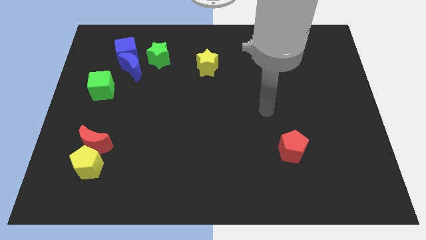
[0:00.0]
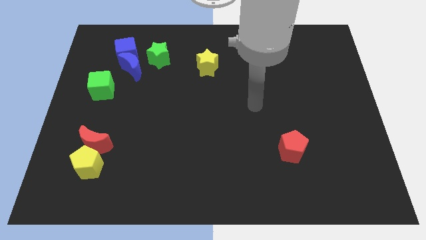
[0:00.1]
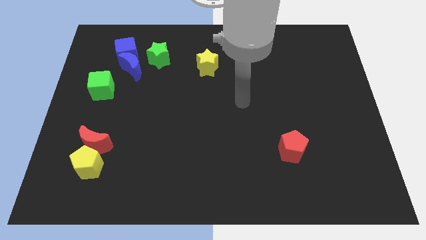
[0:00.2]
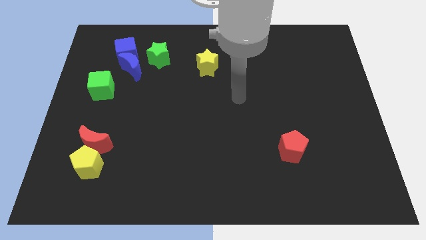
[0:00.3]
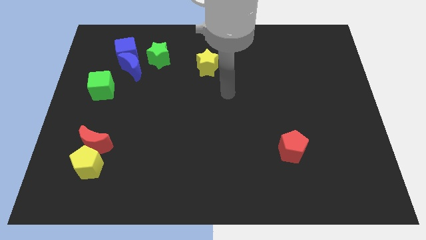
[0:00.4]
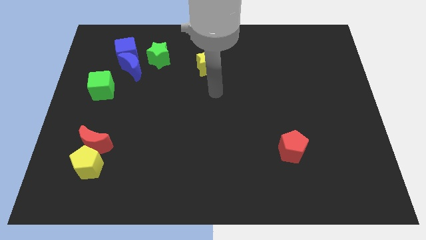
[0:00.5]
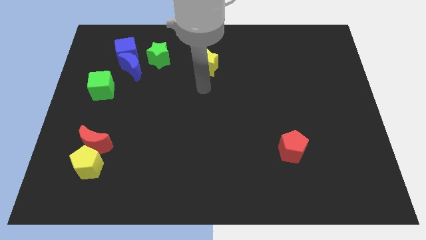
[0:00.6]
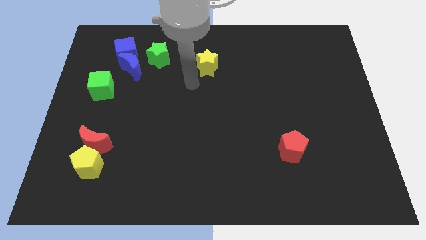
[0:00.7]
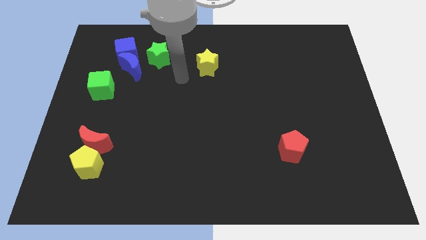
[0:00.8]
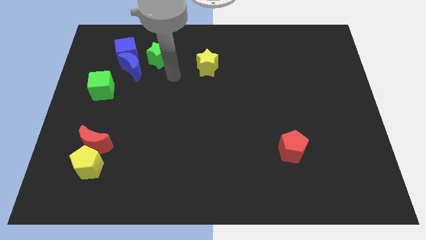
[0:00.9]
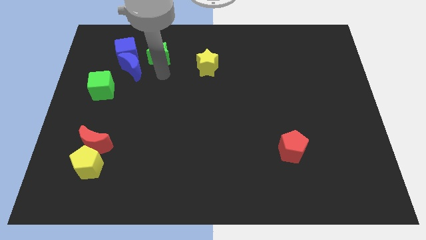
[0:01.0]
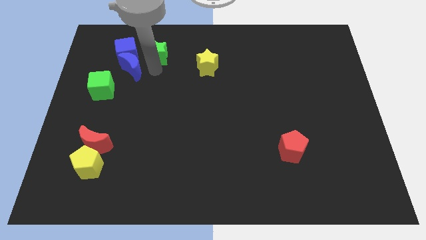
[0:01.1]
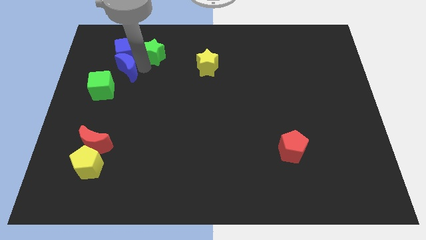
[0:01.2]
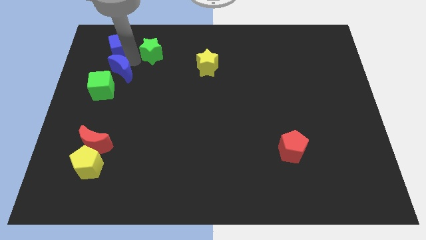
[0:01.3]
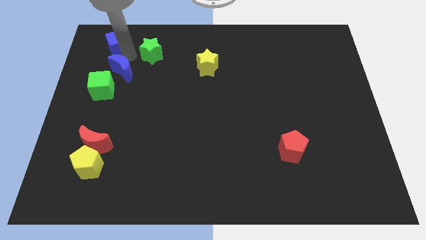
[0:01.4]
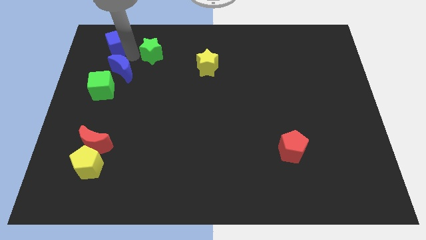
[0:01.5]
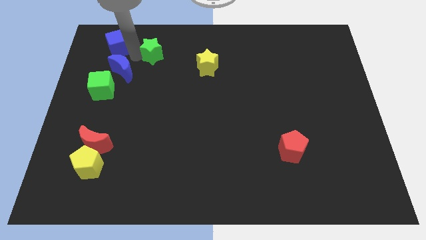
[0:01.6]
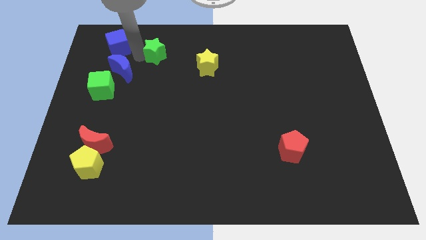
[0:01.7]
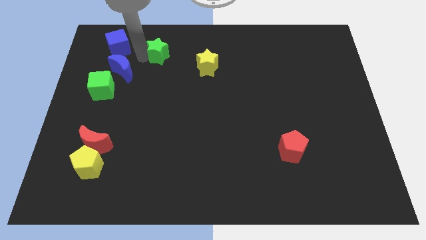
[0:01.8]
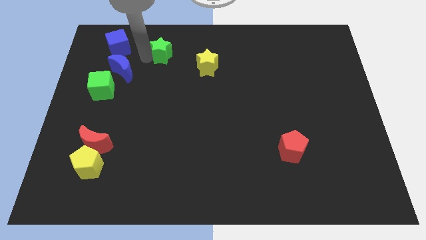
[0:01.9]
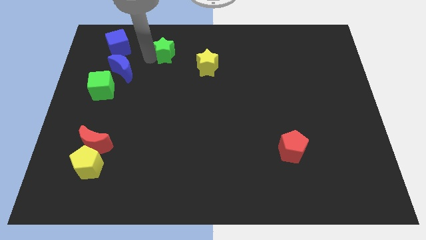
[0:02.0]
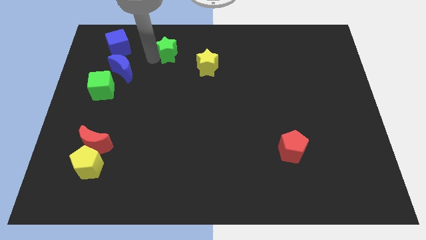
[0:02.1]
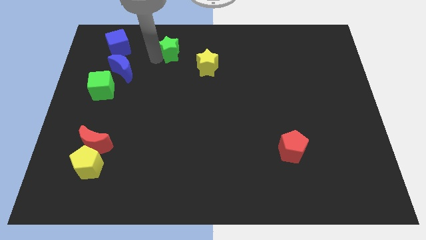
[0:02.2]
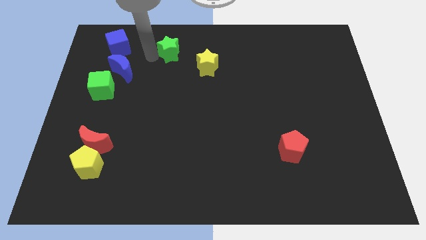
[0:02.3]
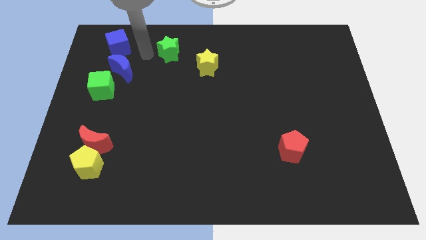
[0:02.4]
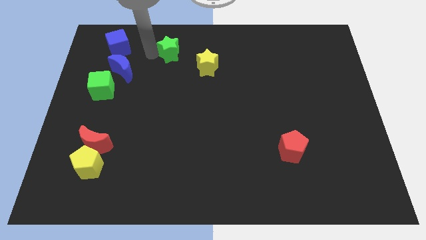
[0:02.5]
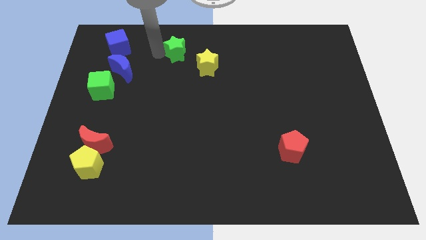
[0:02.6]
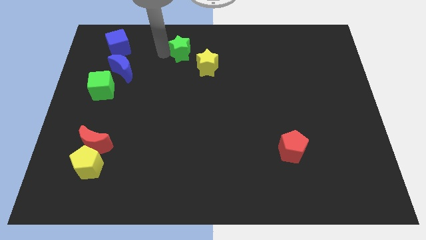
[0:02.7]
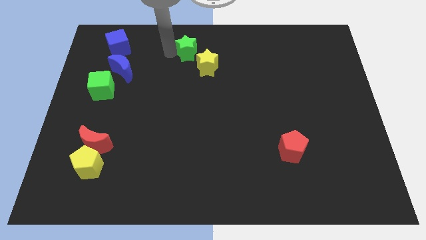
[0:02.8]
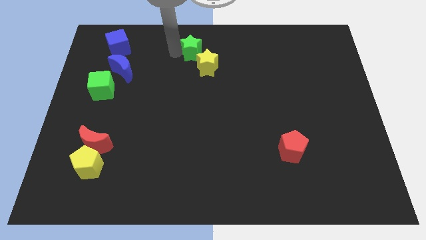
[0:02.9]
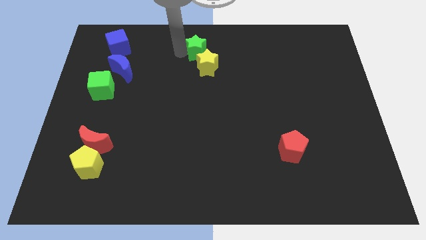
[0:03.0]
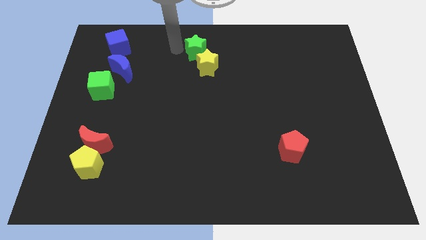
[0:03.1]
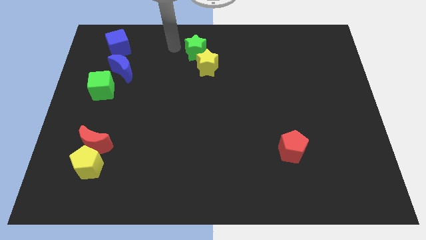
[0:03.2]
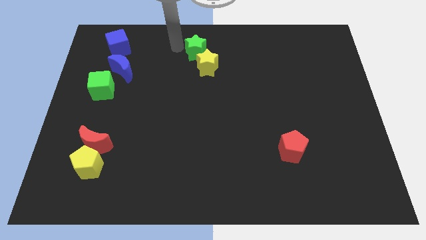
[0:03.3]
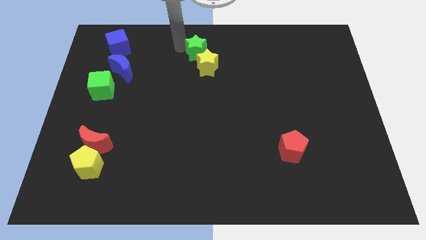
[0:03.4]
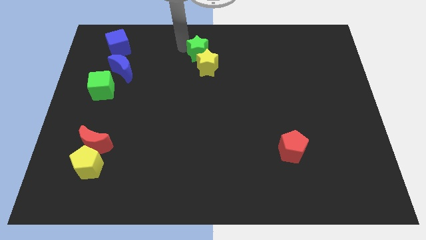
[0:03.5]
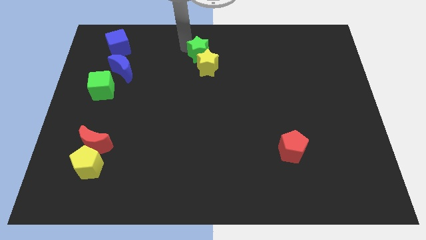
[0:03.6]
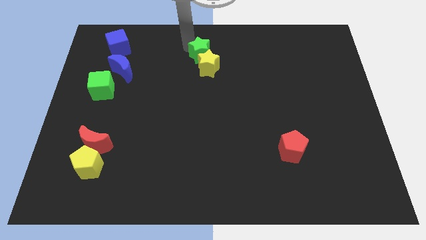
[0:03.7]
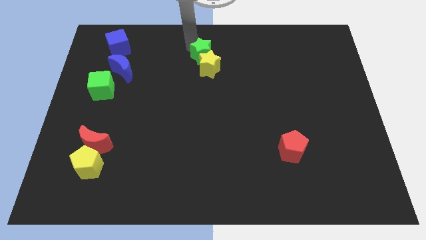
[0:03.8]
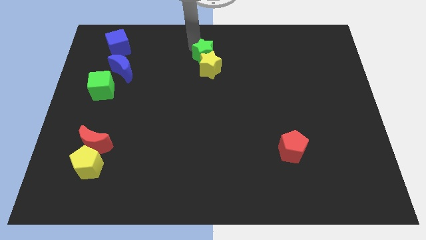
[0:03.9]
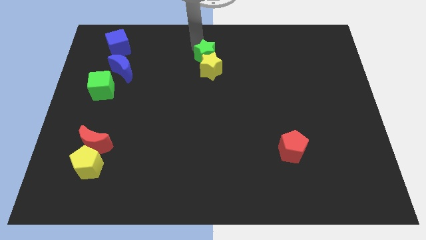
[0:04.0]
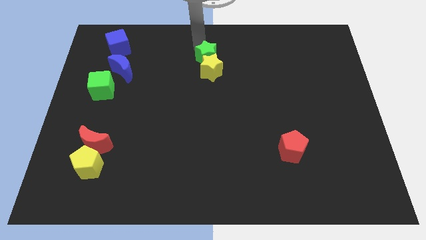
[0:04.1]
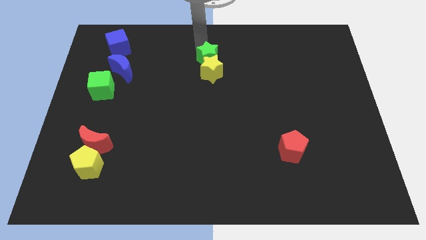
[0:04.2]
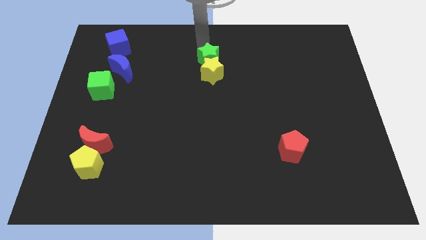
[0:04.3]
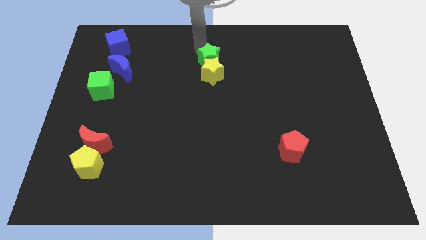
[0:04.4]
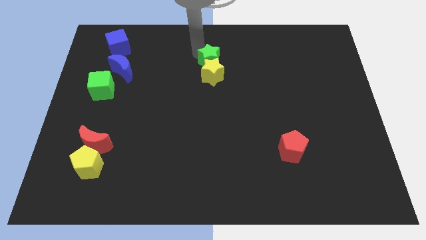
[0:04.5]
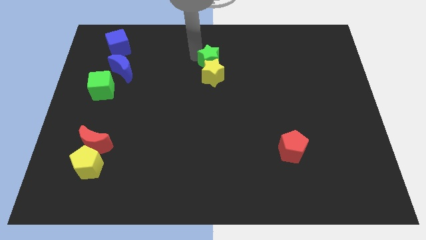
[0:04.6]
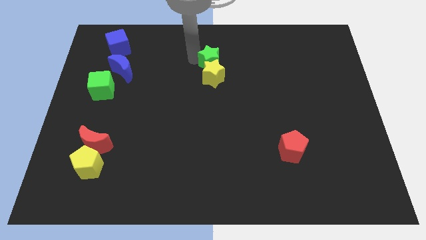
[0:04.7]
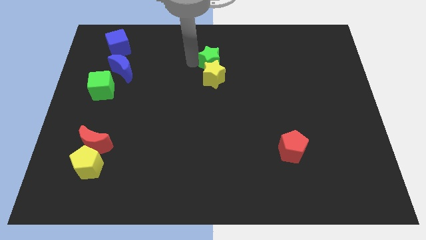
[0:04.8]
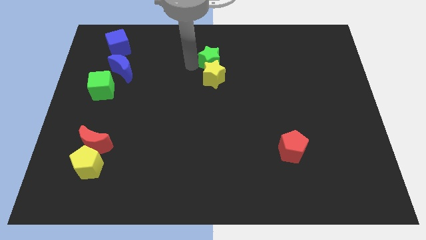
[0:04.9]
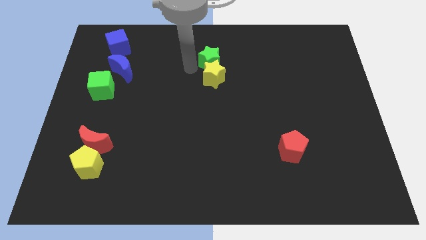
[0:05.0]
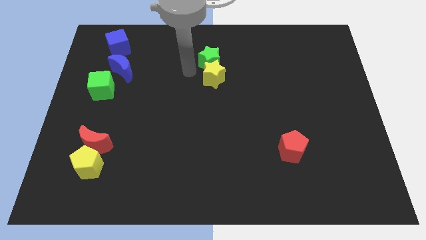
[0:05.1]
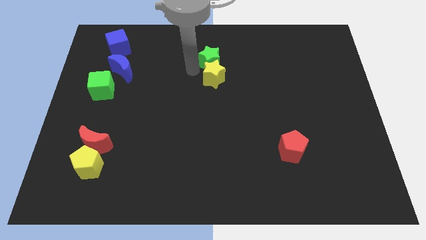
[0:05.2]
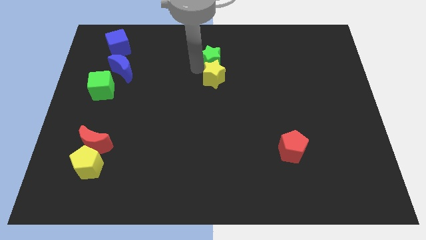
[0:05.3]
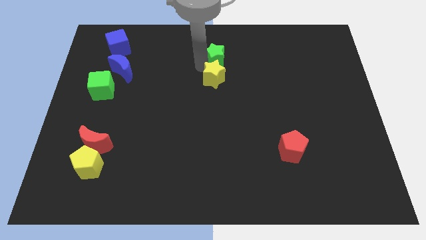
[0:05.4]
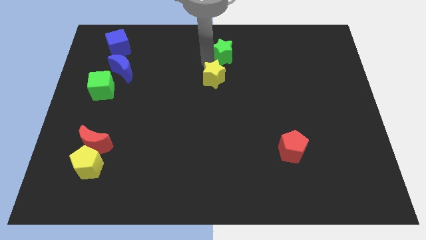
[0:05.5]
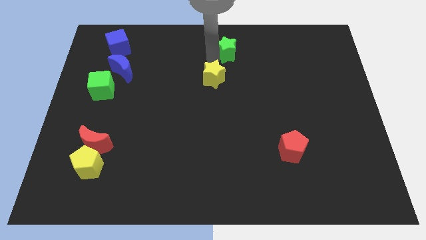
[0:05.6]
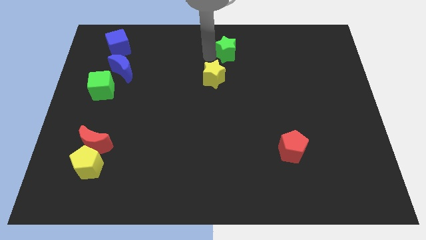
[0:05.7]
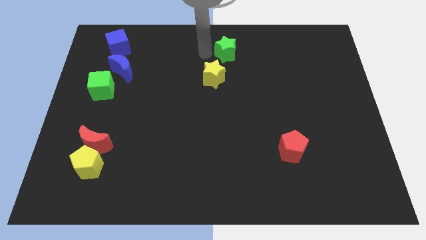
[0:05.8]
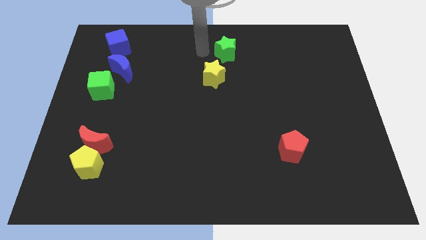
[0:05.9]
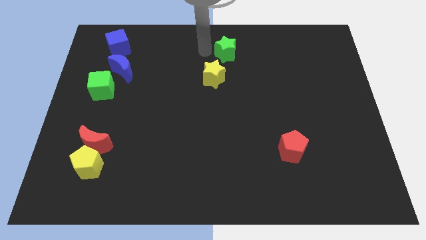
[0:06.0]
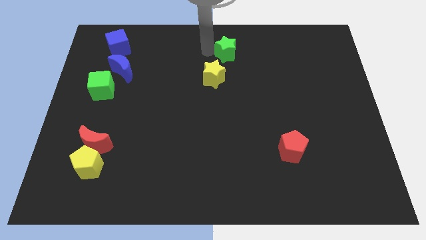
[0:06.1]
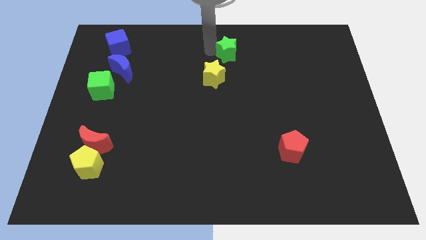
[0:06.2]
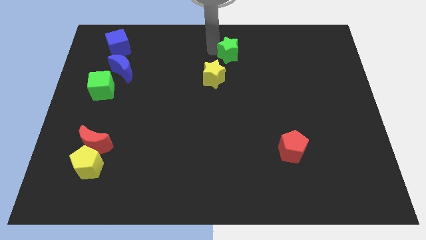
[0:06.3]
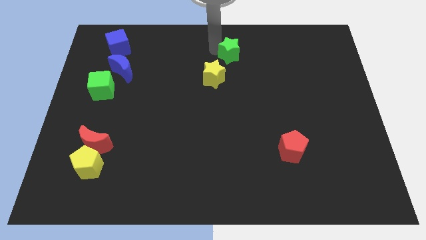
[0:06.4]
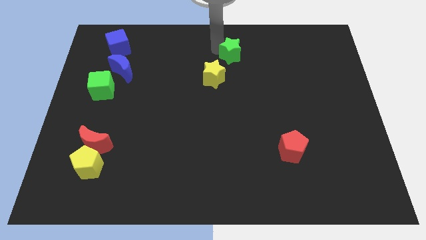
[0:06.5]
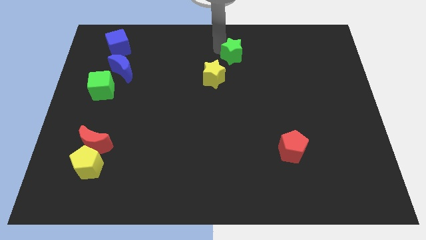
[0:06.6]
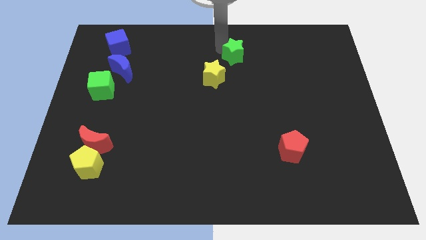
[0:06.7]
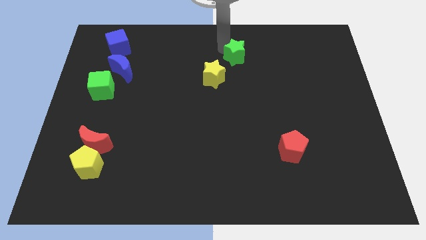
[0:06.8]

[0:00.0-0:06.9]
move the green star right

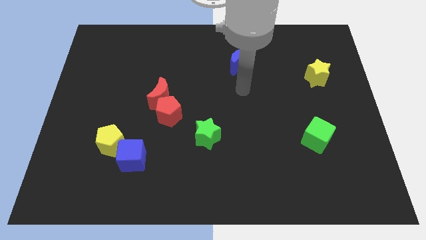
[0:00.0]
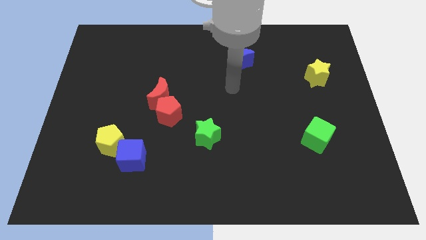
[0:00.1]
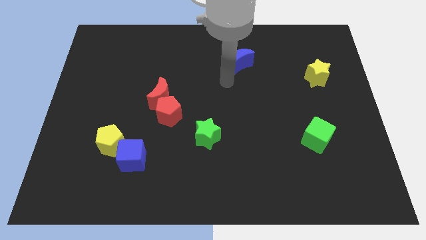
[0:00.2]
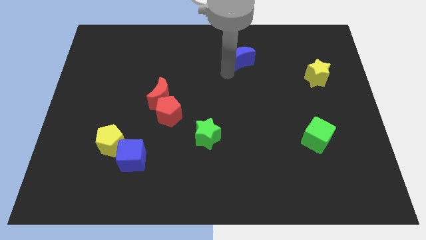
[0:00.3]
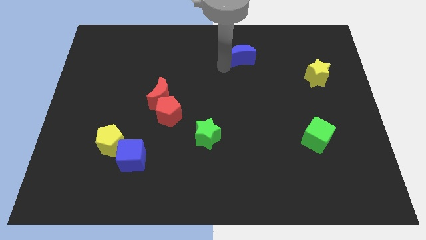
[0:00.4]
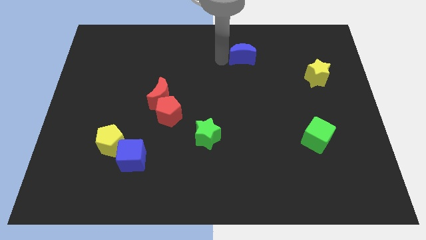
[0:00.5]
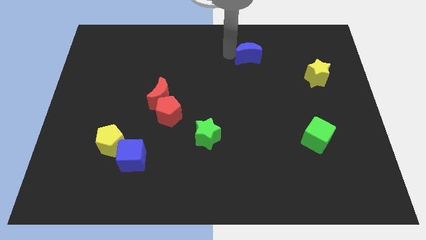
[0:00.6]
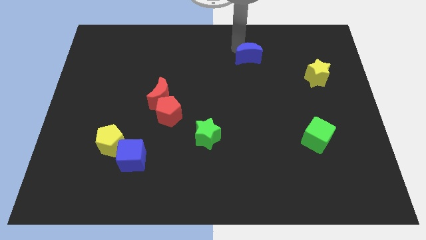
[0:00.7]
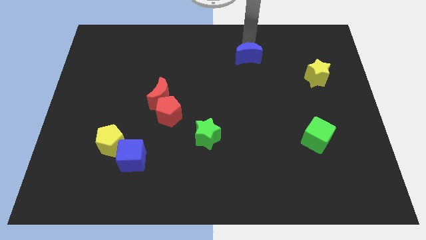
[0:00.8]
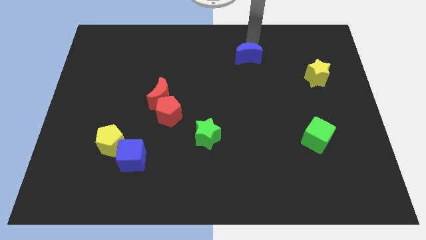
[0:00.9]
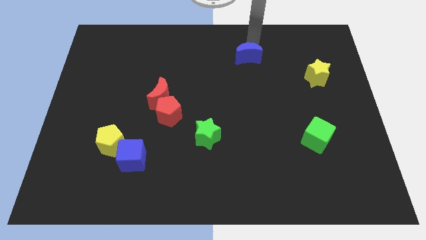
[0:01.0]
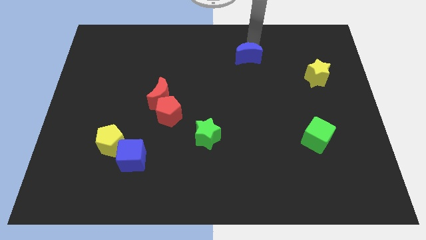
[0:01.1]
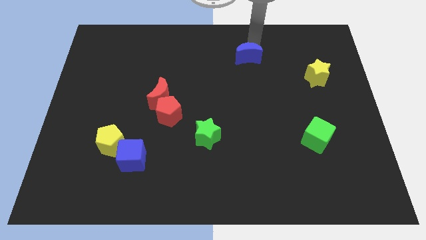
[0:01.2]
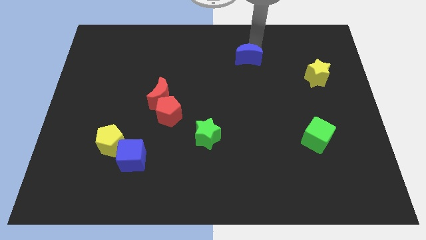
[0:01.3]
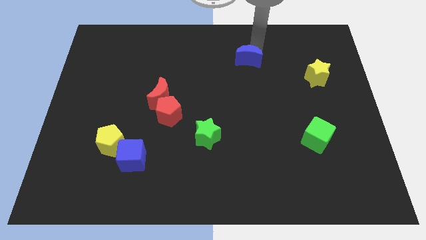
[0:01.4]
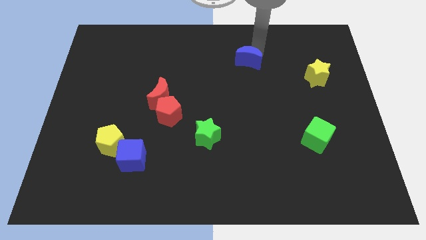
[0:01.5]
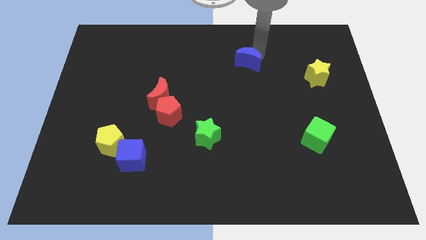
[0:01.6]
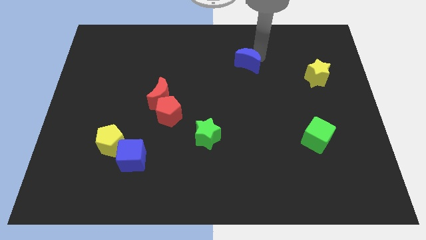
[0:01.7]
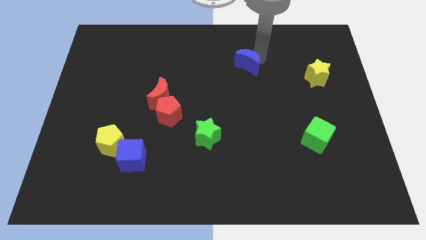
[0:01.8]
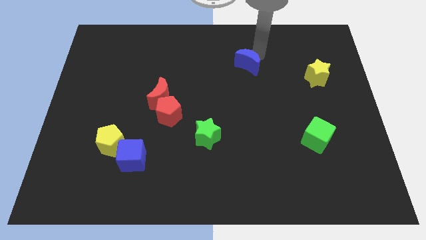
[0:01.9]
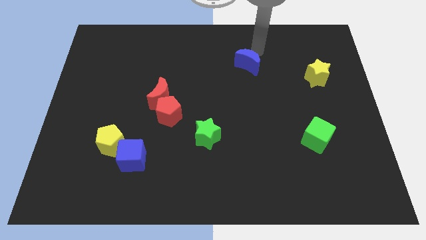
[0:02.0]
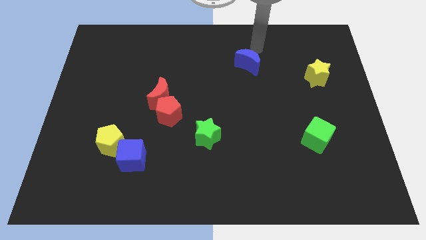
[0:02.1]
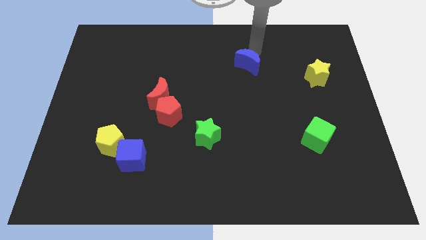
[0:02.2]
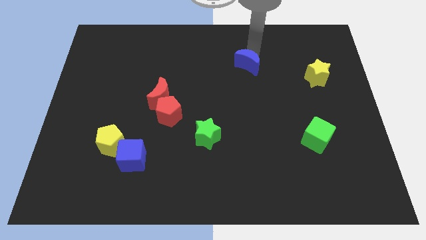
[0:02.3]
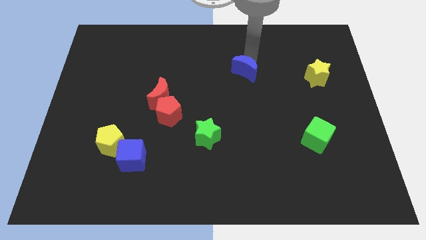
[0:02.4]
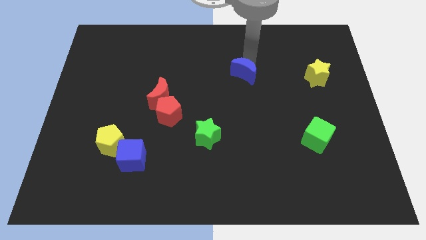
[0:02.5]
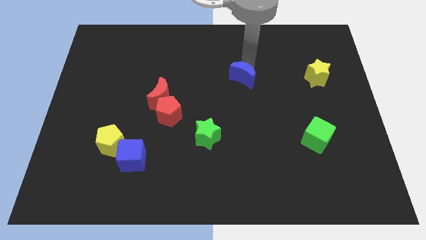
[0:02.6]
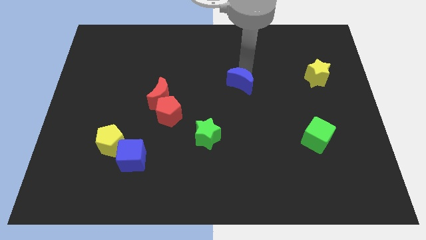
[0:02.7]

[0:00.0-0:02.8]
push the blue moon a bit downwards
